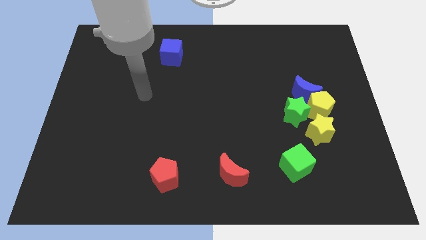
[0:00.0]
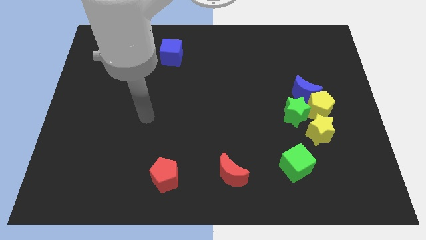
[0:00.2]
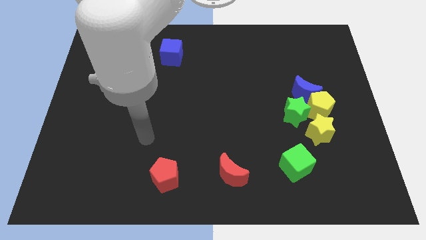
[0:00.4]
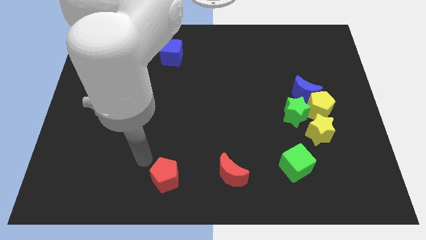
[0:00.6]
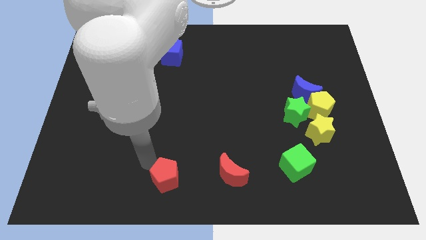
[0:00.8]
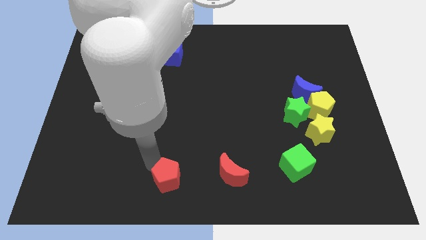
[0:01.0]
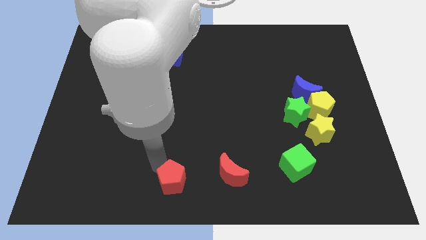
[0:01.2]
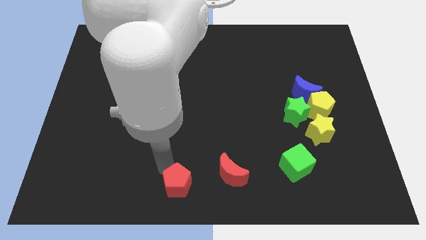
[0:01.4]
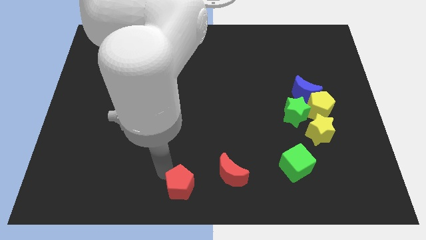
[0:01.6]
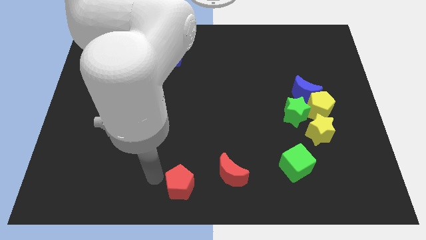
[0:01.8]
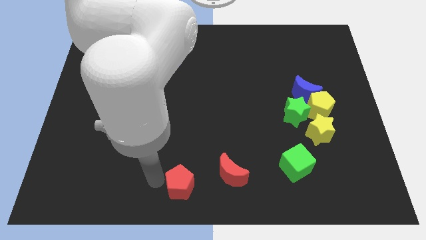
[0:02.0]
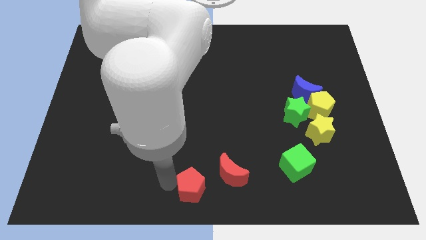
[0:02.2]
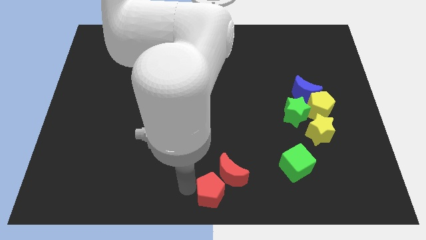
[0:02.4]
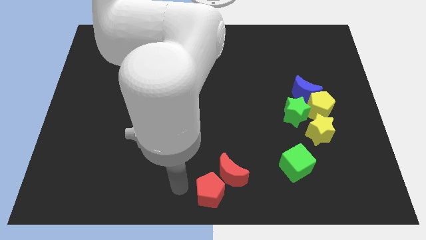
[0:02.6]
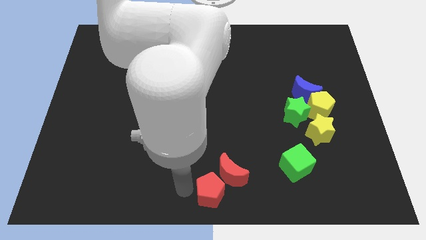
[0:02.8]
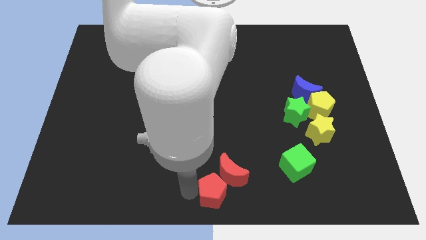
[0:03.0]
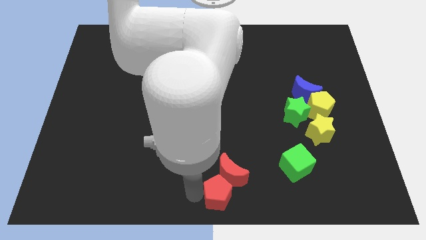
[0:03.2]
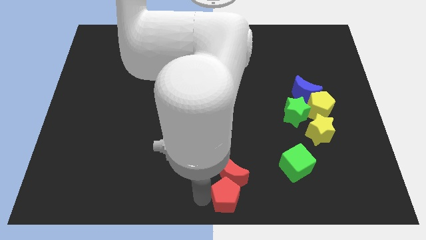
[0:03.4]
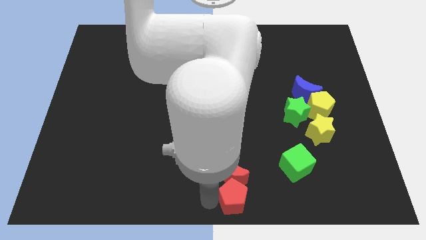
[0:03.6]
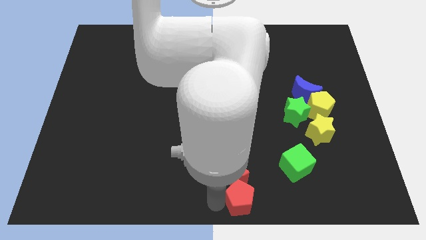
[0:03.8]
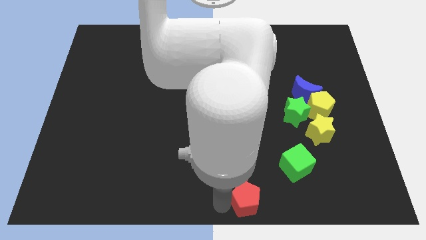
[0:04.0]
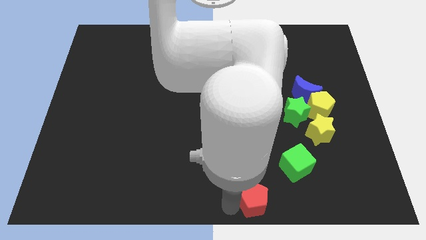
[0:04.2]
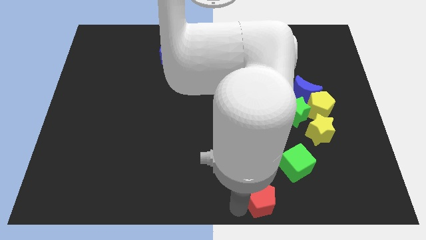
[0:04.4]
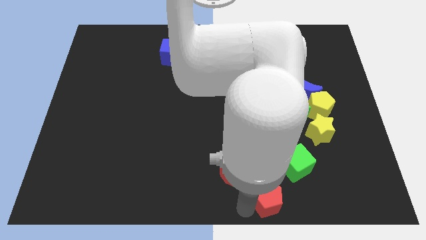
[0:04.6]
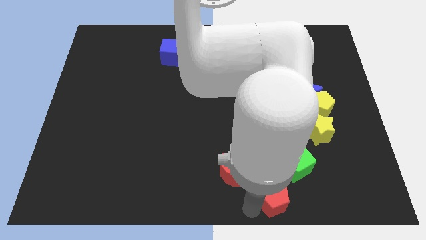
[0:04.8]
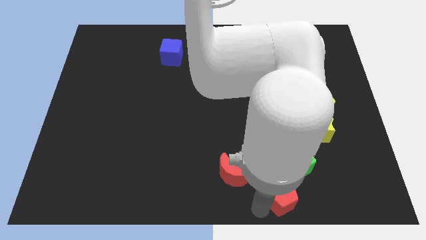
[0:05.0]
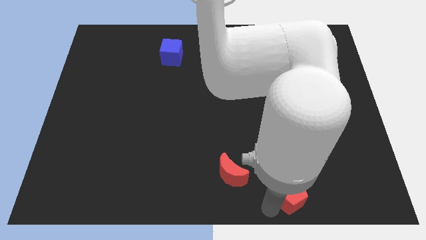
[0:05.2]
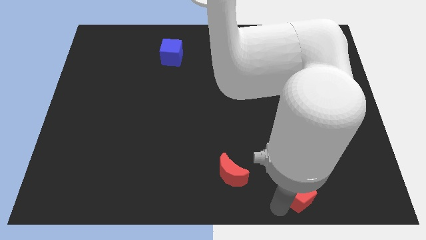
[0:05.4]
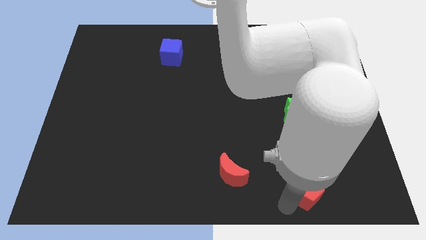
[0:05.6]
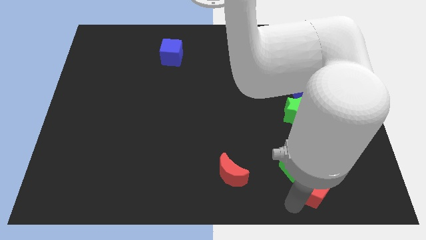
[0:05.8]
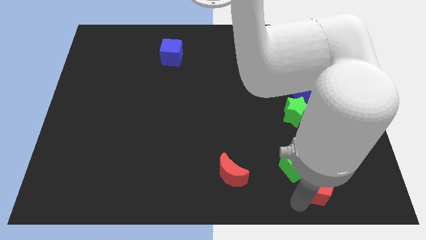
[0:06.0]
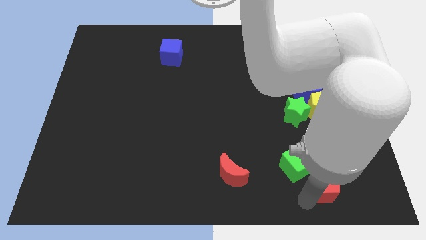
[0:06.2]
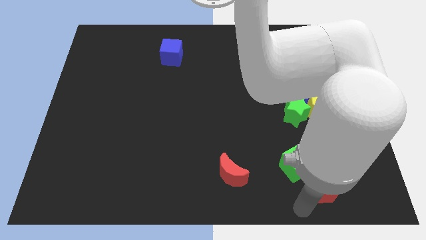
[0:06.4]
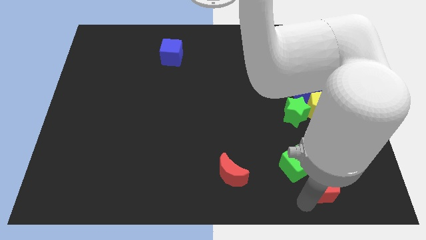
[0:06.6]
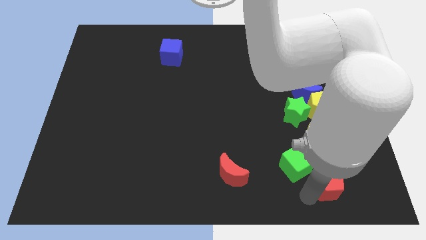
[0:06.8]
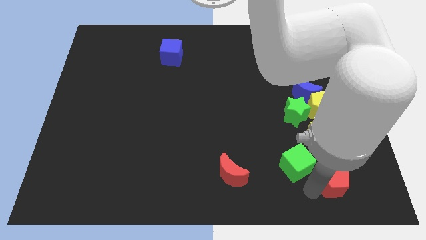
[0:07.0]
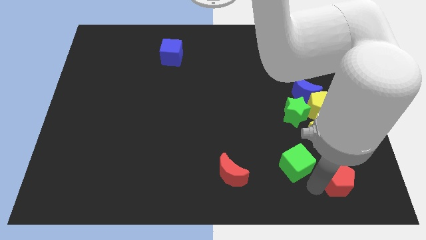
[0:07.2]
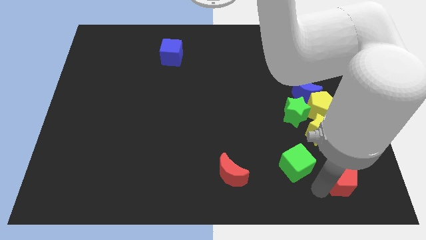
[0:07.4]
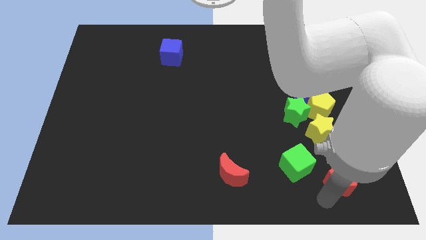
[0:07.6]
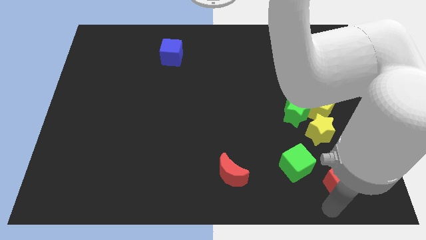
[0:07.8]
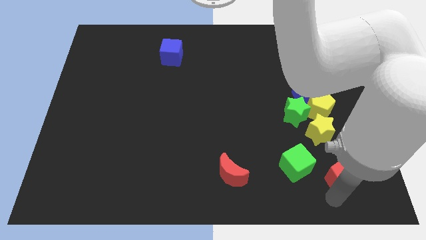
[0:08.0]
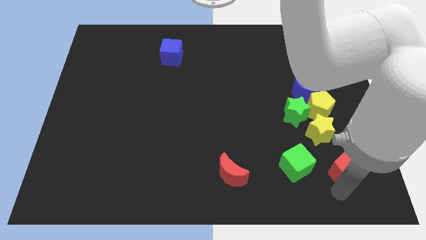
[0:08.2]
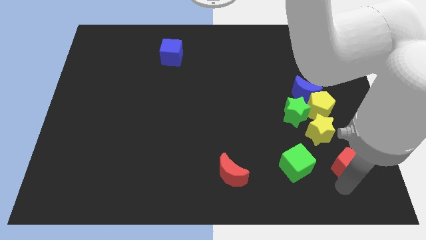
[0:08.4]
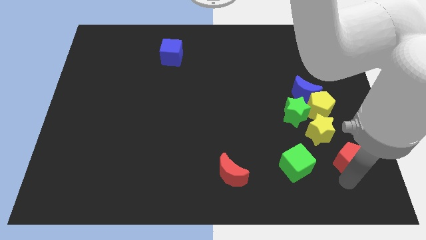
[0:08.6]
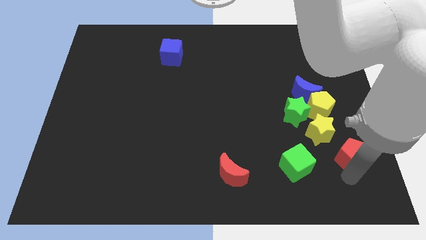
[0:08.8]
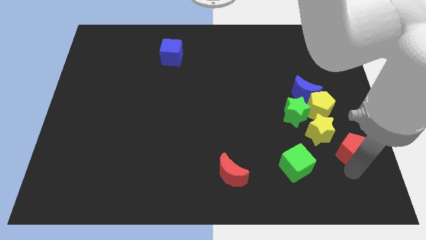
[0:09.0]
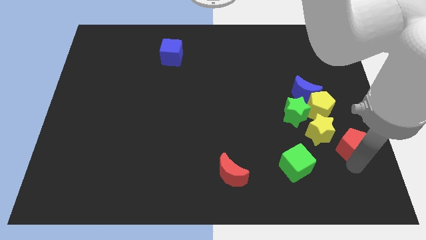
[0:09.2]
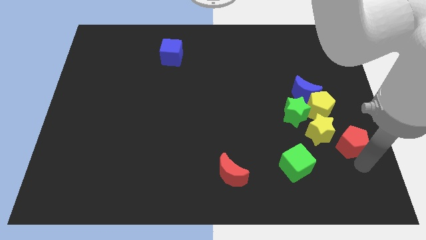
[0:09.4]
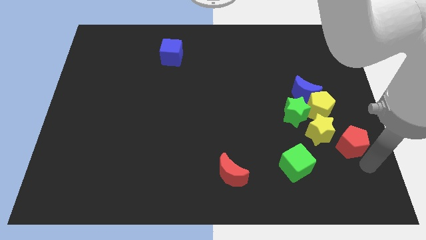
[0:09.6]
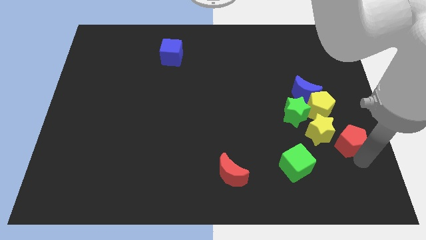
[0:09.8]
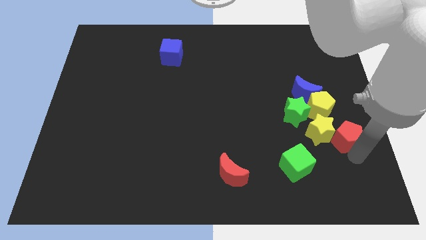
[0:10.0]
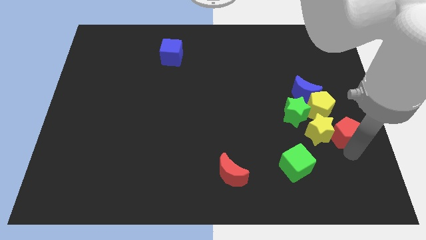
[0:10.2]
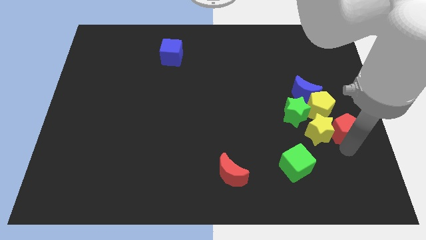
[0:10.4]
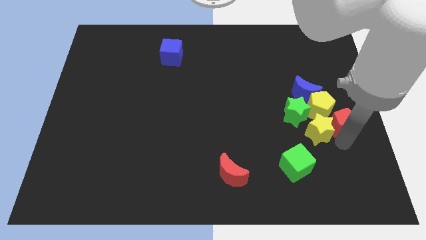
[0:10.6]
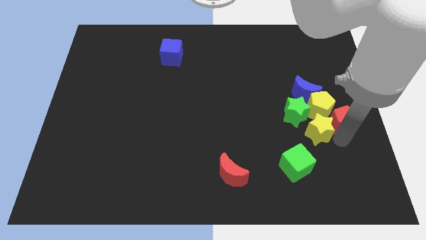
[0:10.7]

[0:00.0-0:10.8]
push the red pentagon towards the yellow pentagon

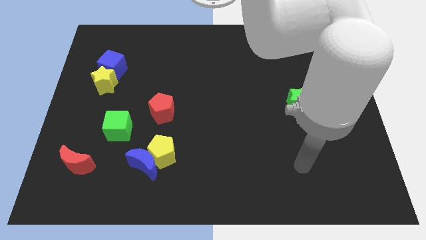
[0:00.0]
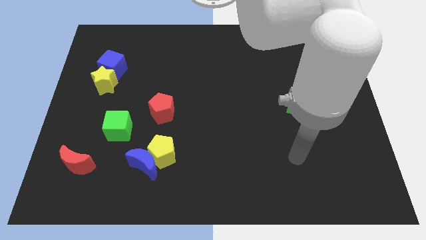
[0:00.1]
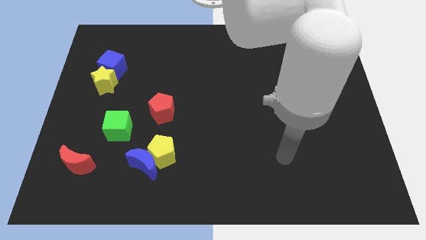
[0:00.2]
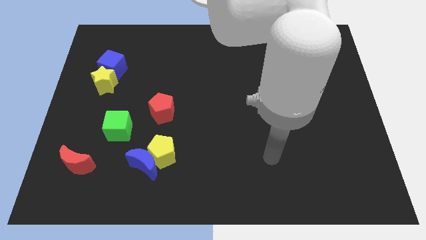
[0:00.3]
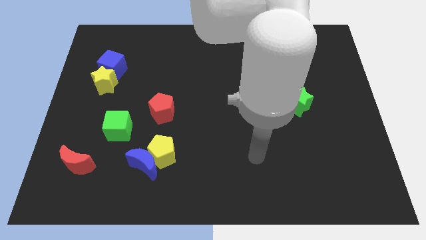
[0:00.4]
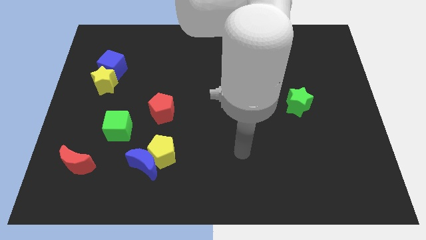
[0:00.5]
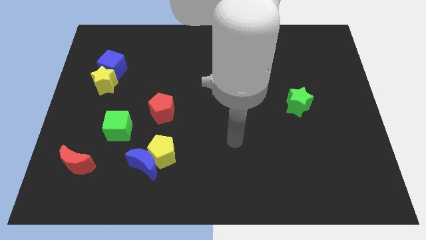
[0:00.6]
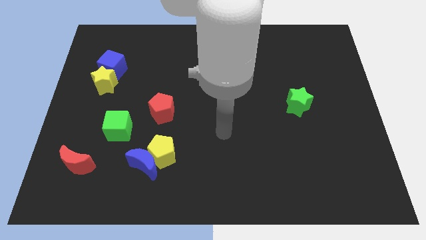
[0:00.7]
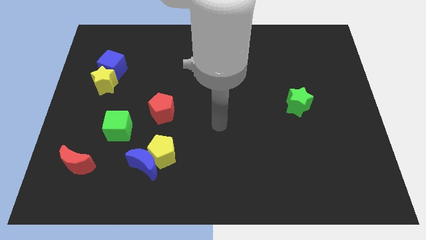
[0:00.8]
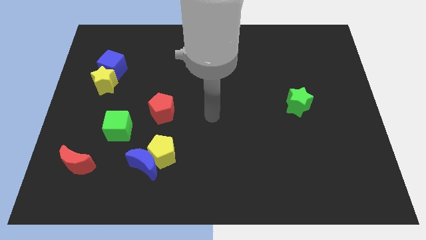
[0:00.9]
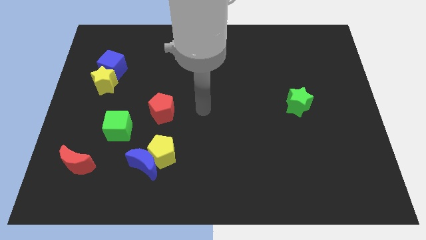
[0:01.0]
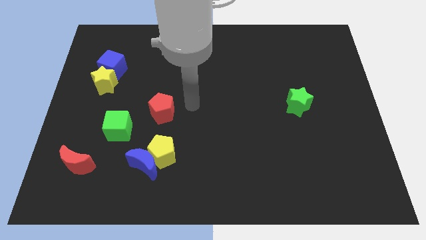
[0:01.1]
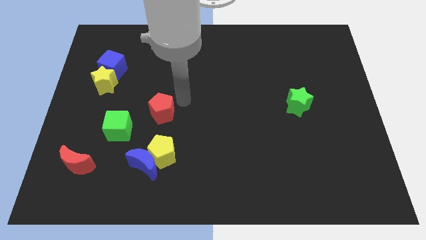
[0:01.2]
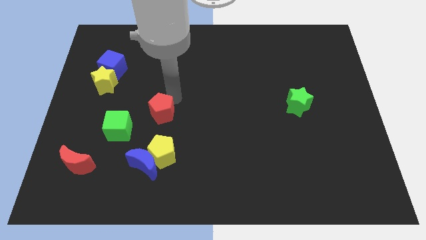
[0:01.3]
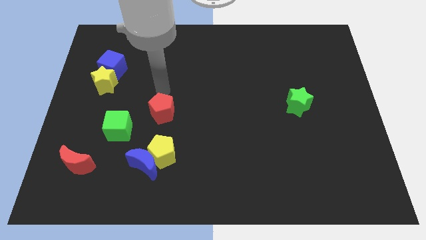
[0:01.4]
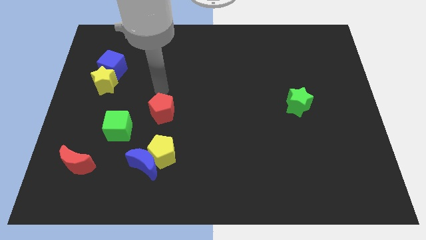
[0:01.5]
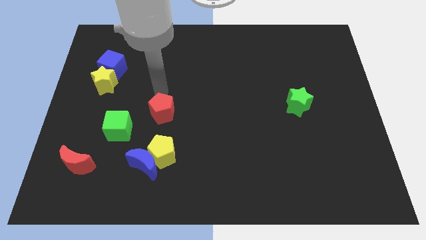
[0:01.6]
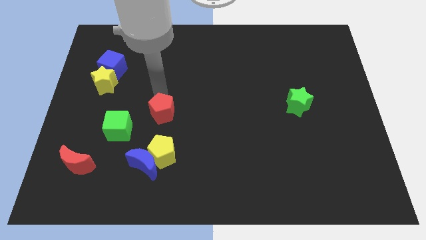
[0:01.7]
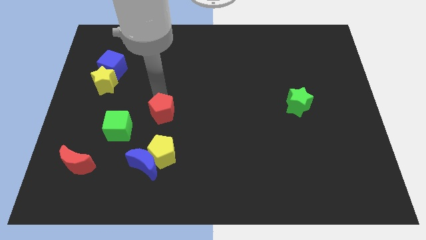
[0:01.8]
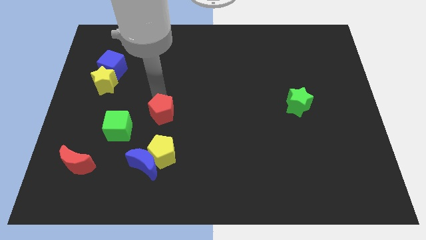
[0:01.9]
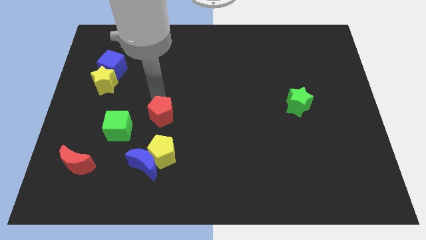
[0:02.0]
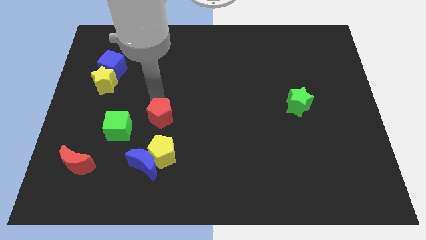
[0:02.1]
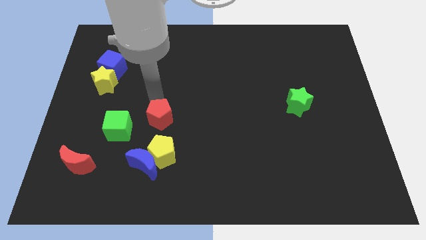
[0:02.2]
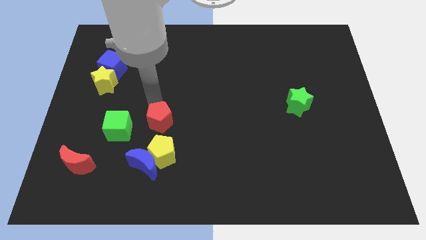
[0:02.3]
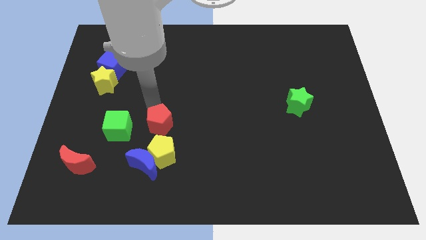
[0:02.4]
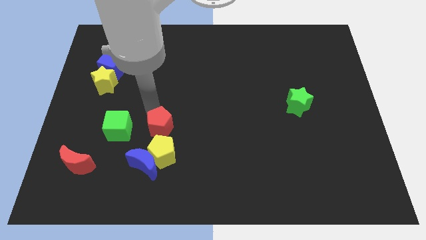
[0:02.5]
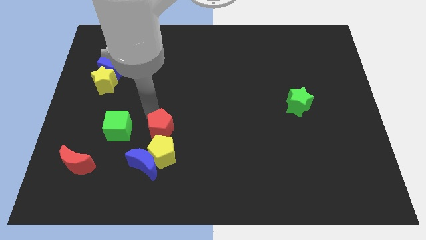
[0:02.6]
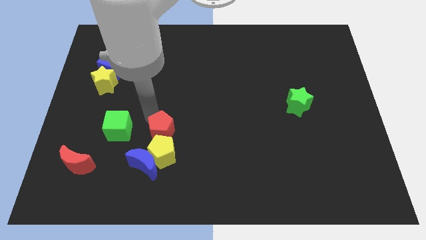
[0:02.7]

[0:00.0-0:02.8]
slide the red pentagon to the yellow pentagon
